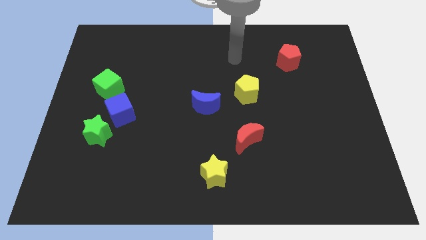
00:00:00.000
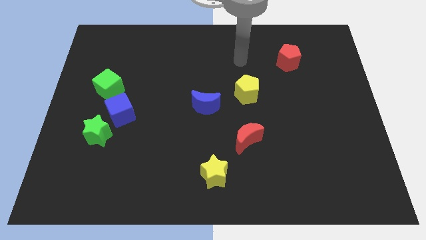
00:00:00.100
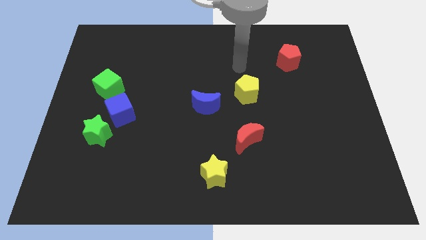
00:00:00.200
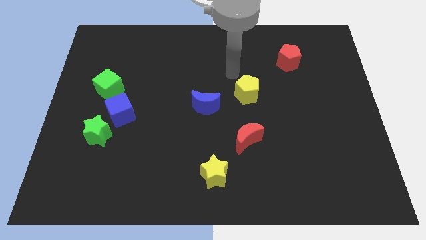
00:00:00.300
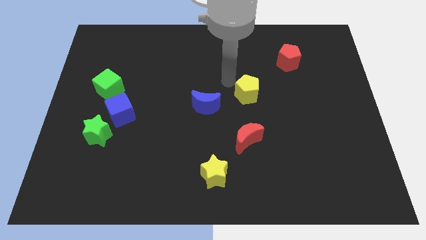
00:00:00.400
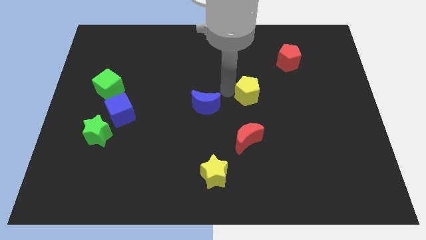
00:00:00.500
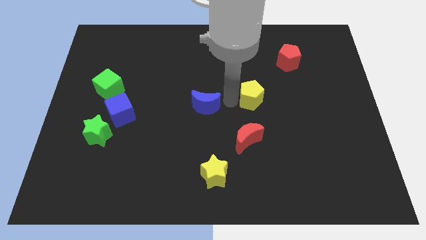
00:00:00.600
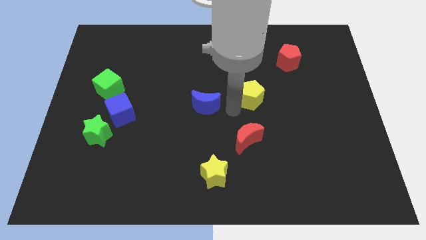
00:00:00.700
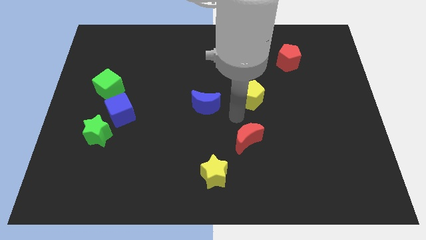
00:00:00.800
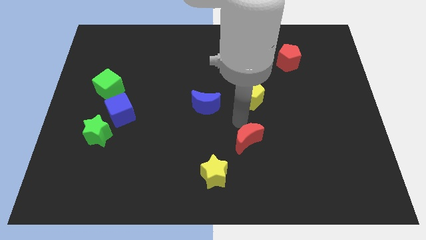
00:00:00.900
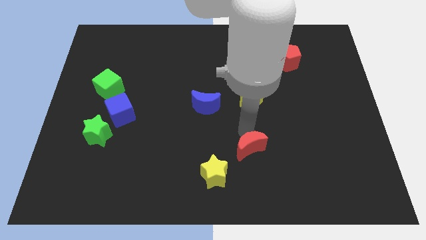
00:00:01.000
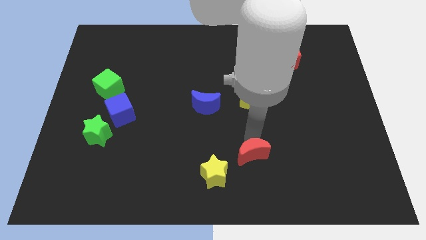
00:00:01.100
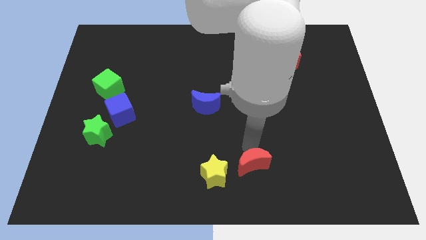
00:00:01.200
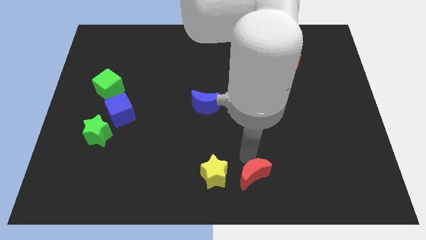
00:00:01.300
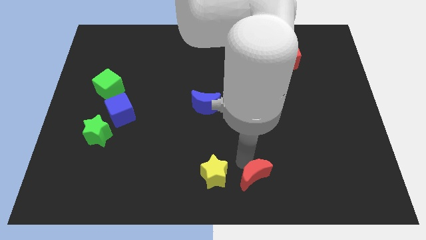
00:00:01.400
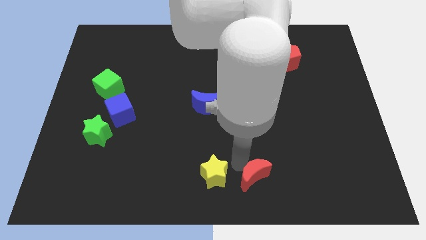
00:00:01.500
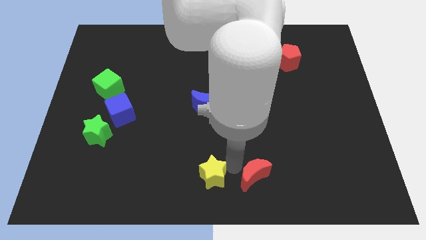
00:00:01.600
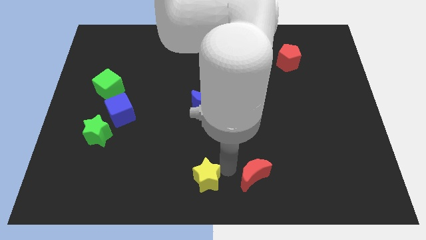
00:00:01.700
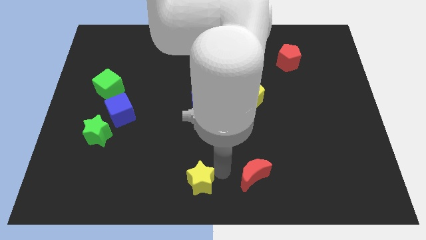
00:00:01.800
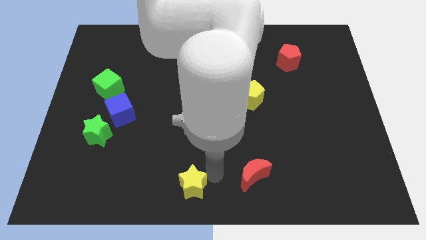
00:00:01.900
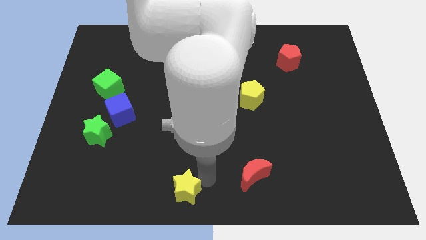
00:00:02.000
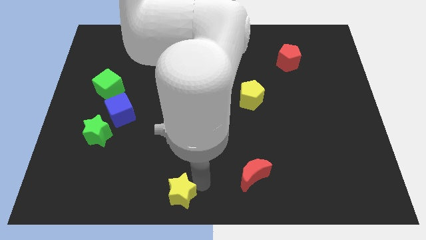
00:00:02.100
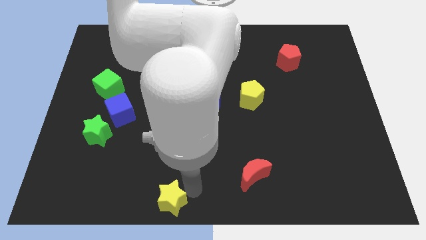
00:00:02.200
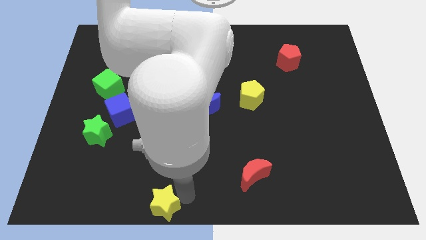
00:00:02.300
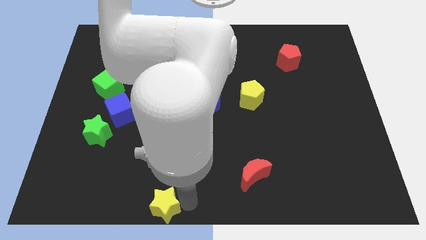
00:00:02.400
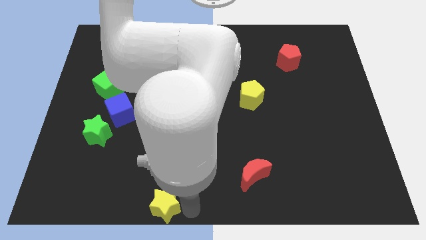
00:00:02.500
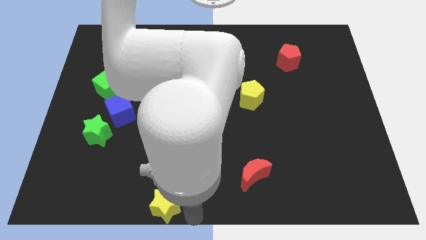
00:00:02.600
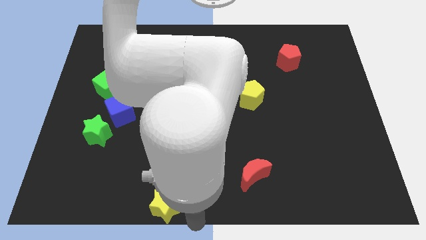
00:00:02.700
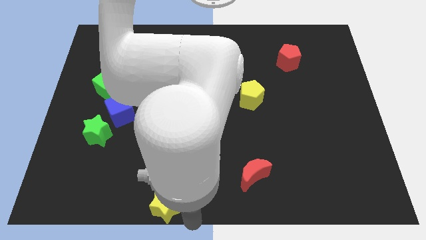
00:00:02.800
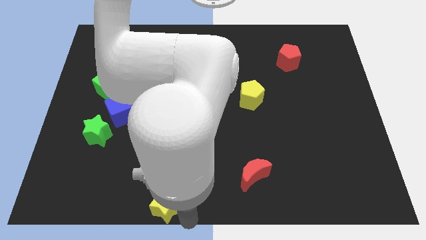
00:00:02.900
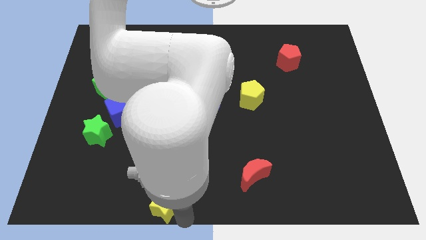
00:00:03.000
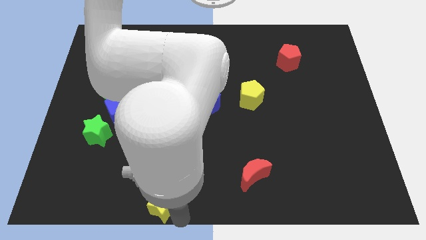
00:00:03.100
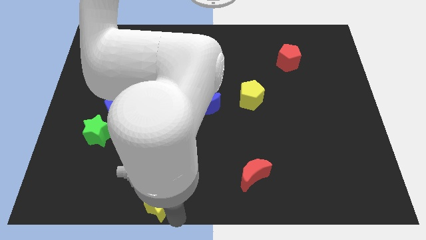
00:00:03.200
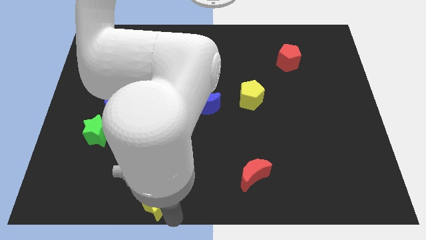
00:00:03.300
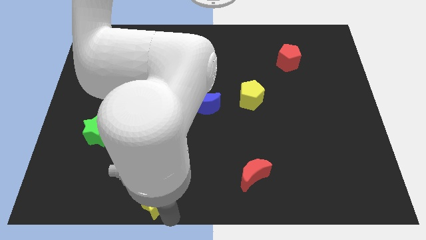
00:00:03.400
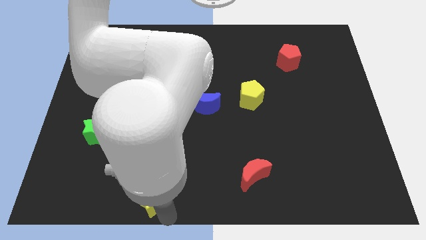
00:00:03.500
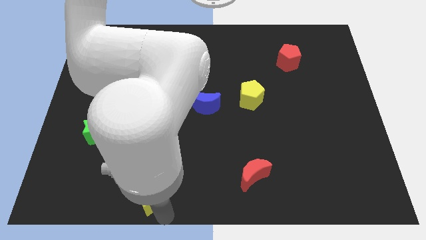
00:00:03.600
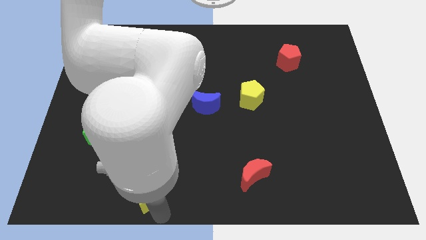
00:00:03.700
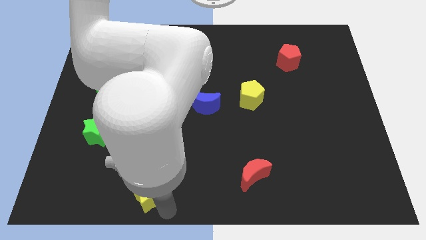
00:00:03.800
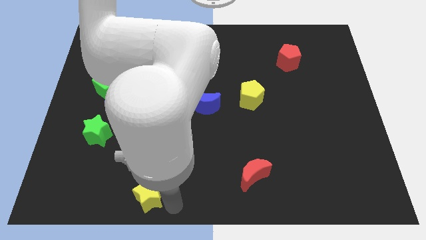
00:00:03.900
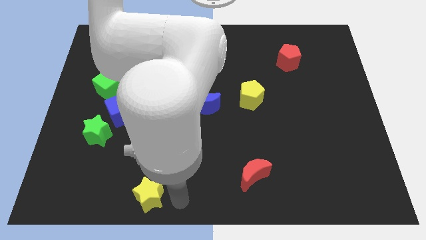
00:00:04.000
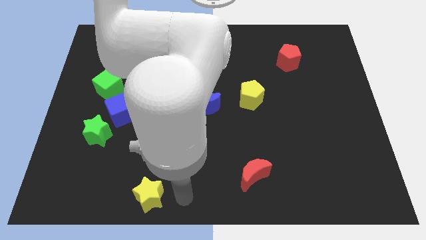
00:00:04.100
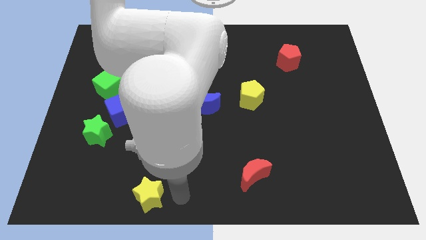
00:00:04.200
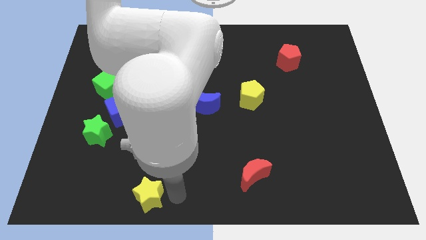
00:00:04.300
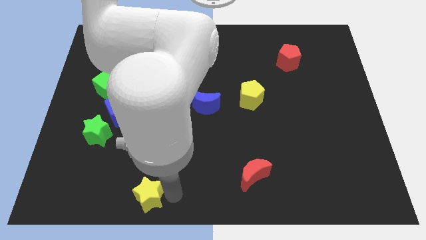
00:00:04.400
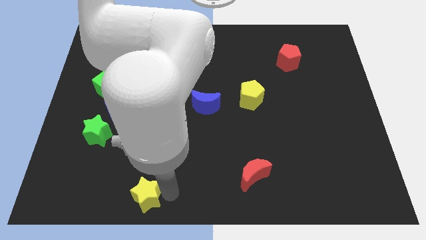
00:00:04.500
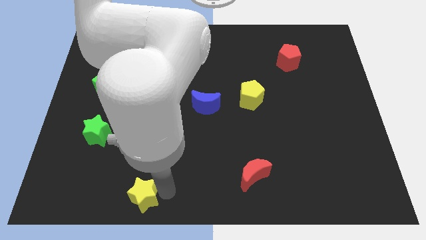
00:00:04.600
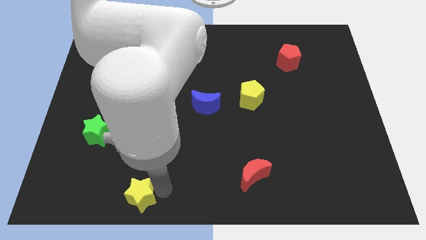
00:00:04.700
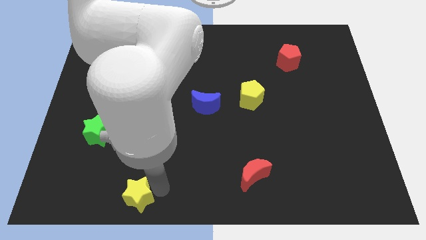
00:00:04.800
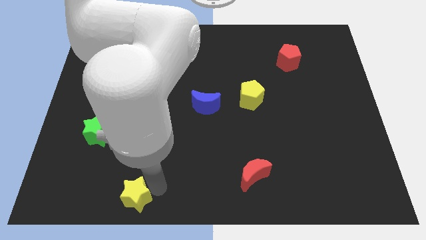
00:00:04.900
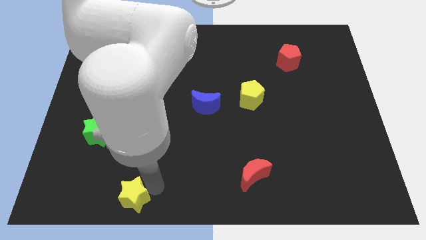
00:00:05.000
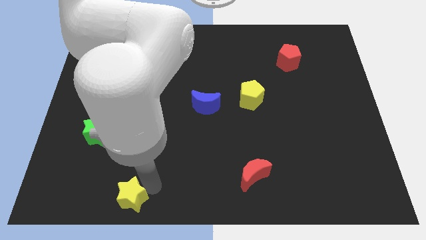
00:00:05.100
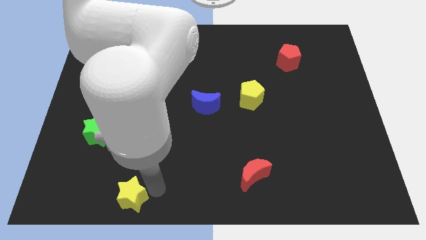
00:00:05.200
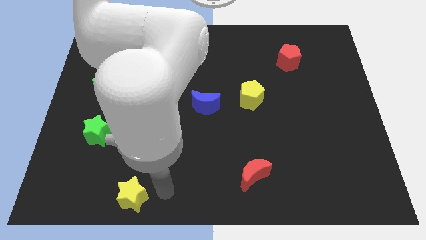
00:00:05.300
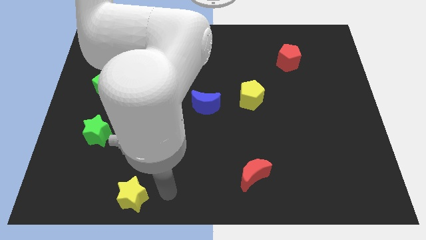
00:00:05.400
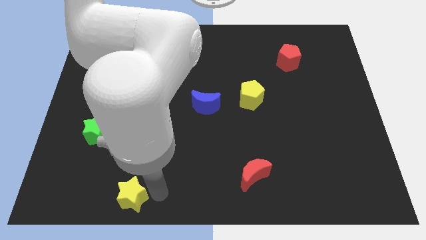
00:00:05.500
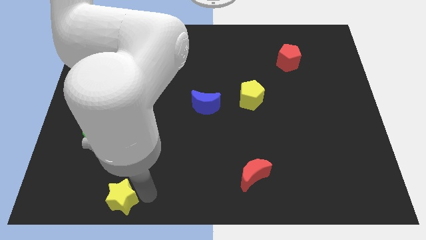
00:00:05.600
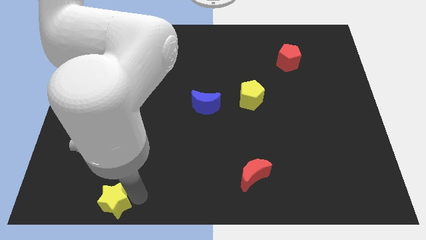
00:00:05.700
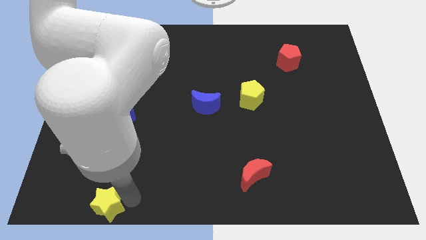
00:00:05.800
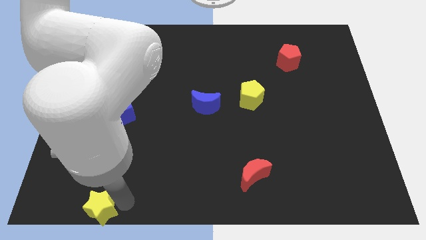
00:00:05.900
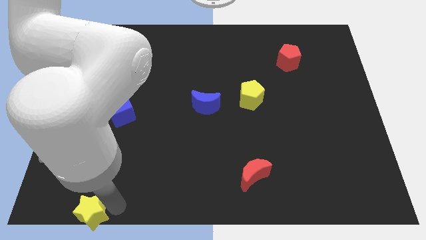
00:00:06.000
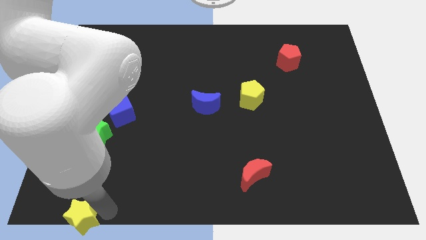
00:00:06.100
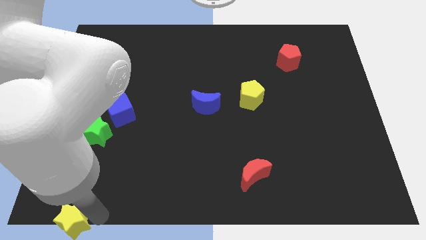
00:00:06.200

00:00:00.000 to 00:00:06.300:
put the yellow star to the bottom left corner
